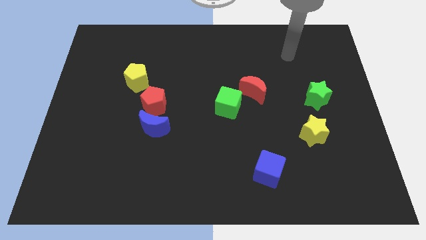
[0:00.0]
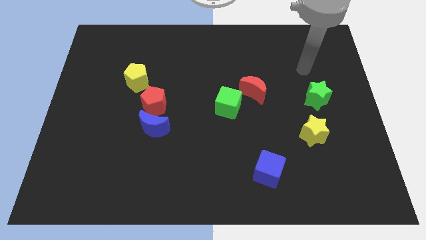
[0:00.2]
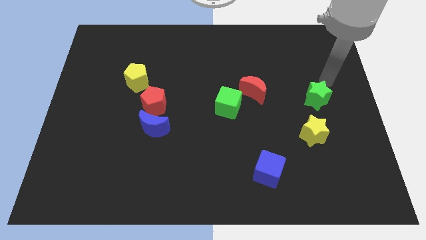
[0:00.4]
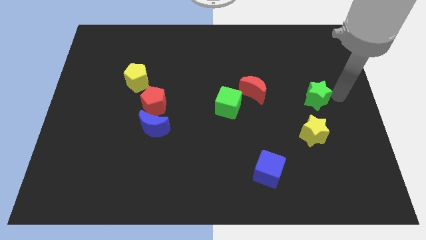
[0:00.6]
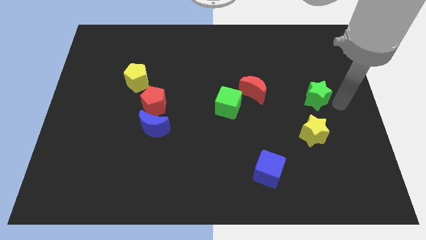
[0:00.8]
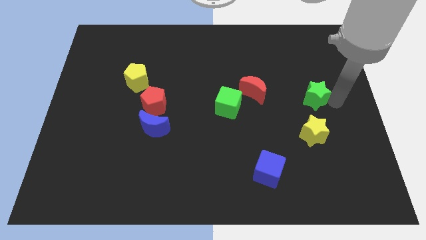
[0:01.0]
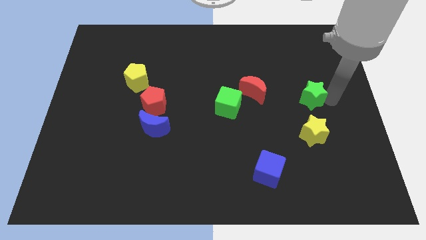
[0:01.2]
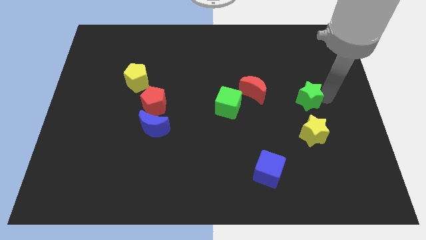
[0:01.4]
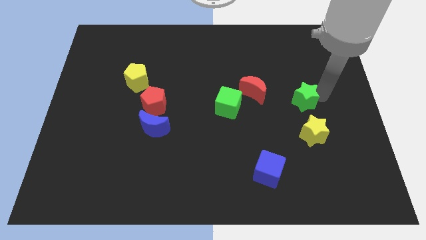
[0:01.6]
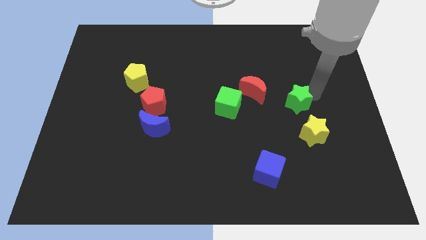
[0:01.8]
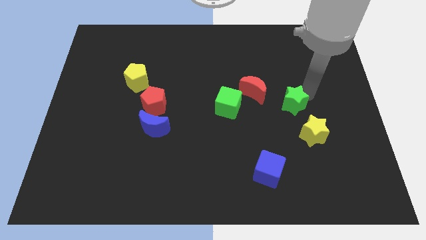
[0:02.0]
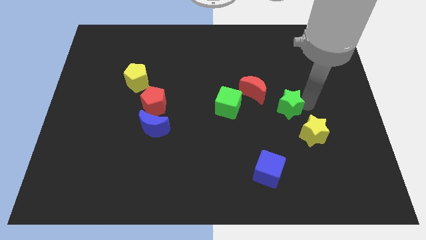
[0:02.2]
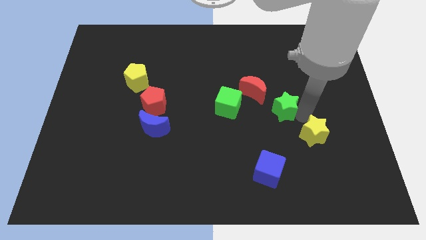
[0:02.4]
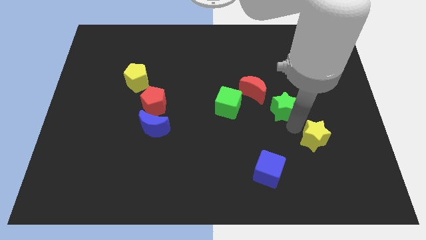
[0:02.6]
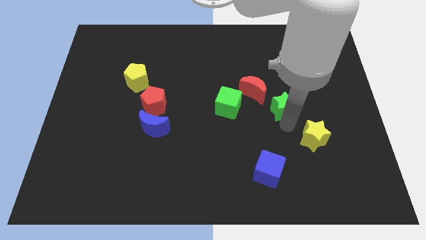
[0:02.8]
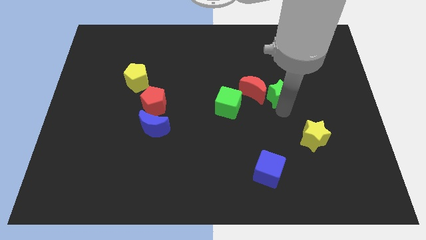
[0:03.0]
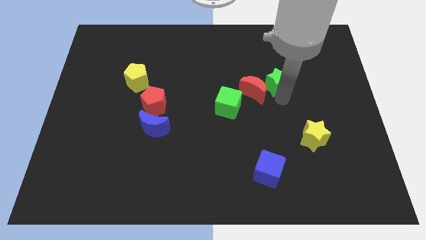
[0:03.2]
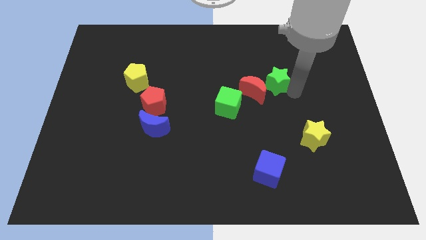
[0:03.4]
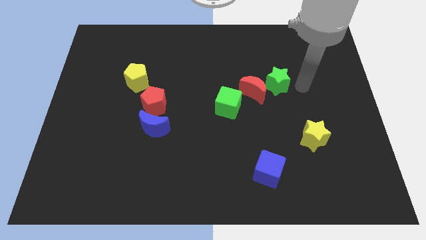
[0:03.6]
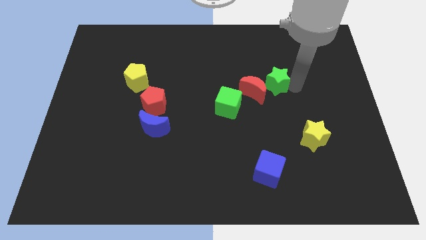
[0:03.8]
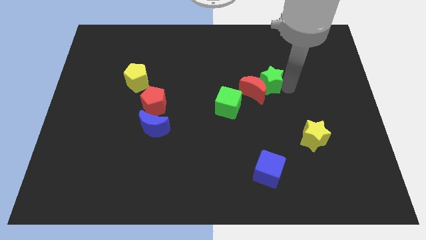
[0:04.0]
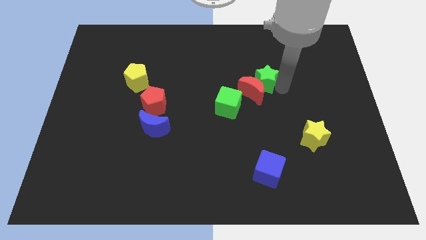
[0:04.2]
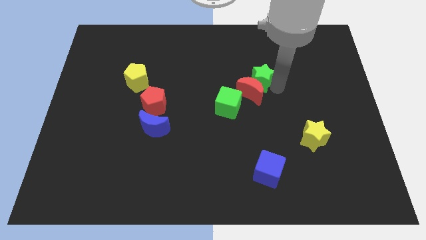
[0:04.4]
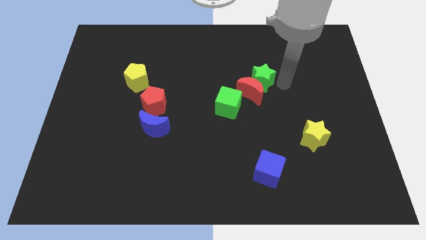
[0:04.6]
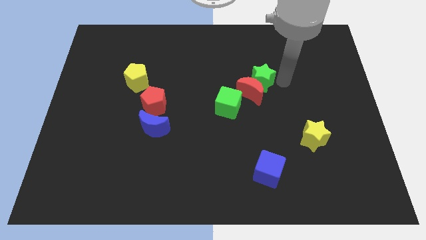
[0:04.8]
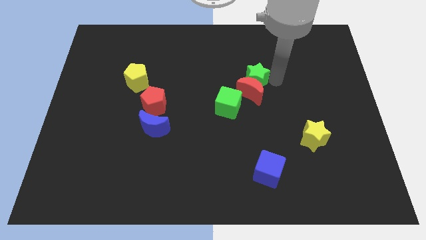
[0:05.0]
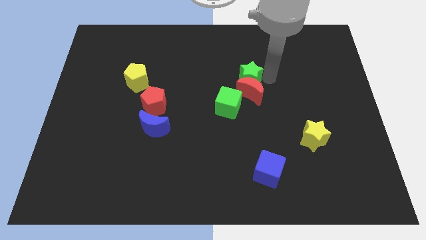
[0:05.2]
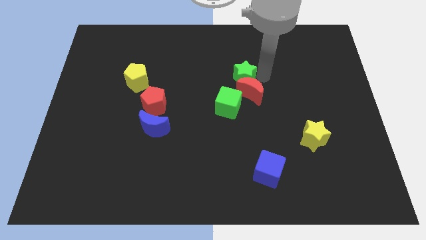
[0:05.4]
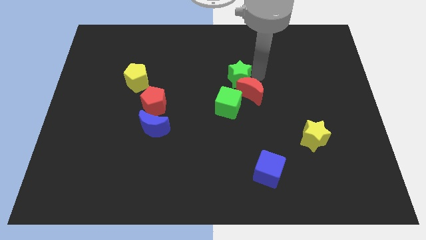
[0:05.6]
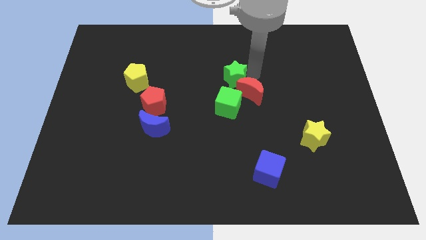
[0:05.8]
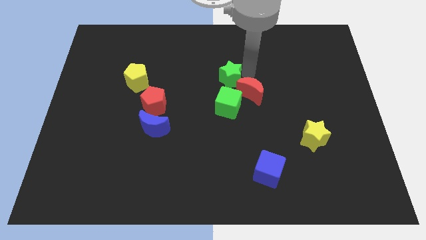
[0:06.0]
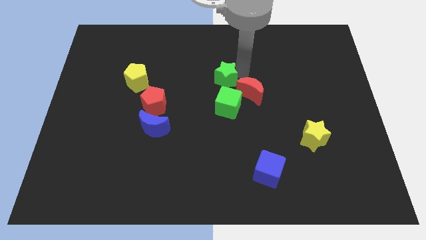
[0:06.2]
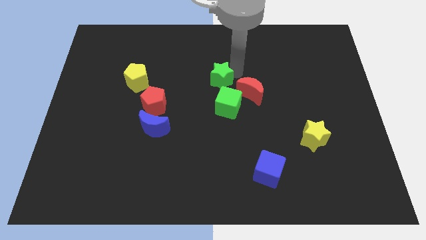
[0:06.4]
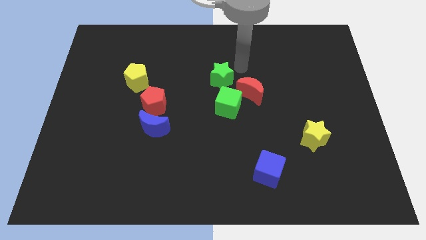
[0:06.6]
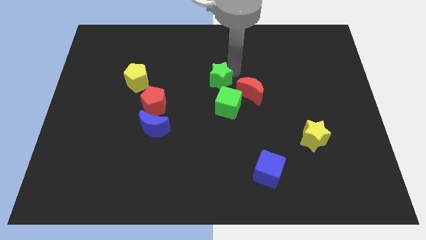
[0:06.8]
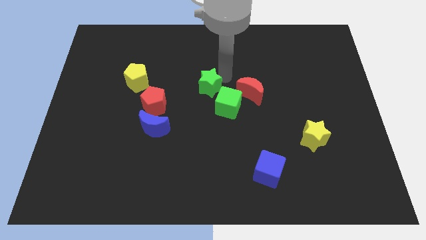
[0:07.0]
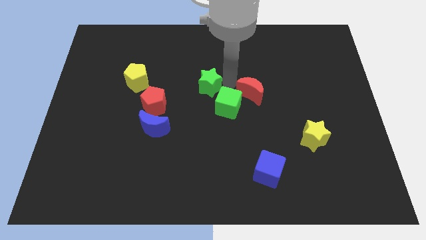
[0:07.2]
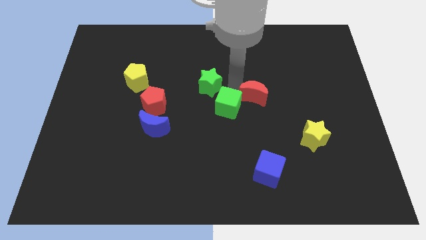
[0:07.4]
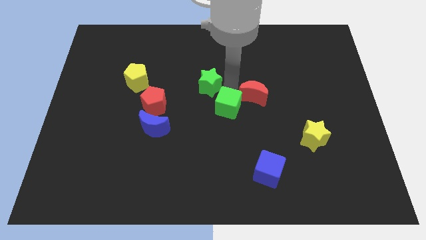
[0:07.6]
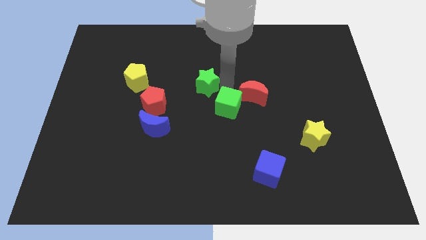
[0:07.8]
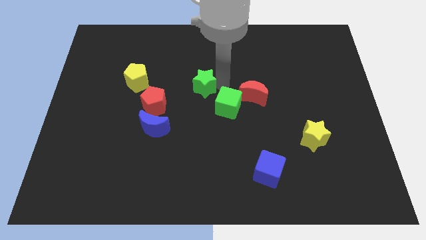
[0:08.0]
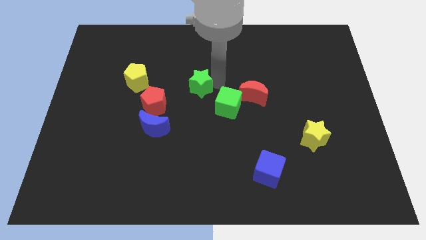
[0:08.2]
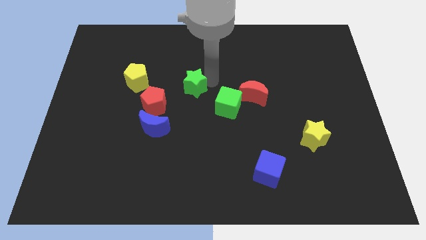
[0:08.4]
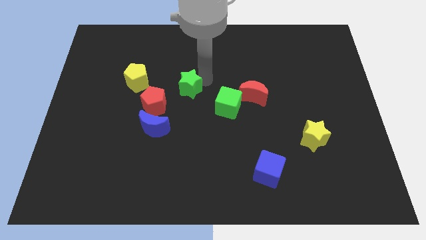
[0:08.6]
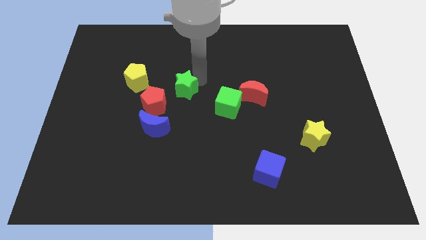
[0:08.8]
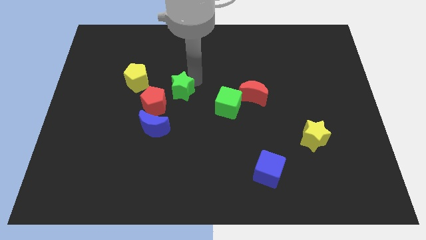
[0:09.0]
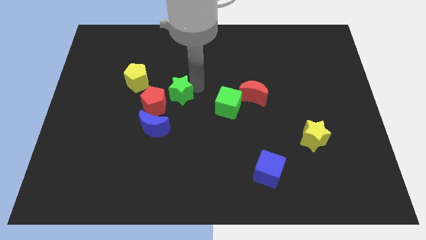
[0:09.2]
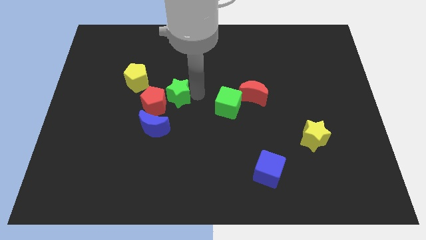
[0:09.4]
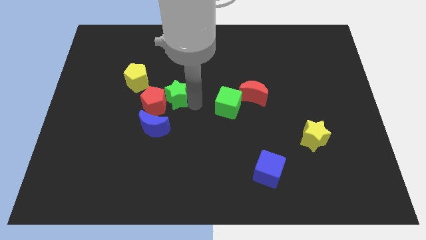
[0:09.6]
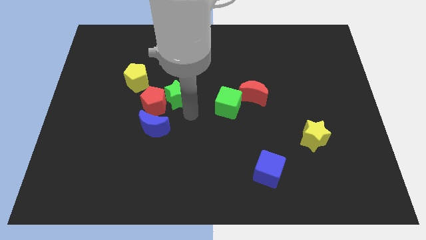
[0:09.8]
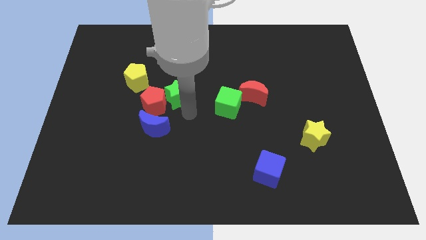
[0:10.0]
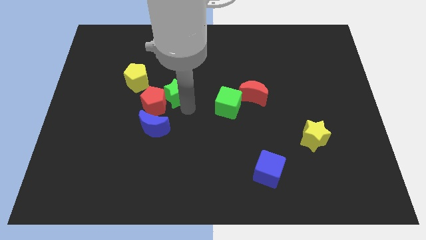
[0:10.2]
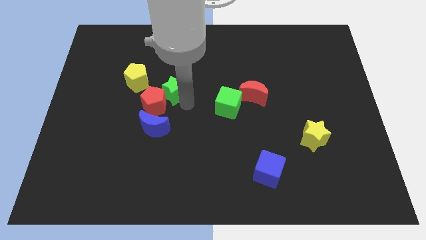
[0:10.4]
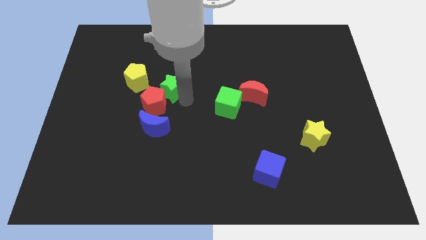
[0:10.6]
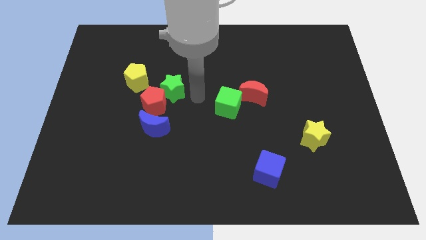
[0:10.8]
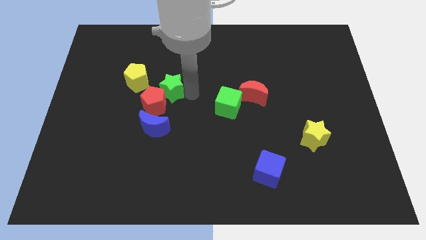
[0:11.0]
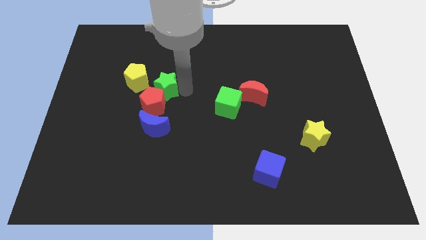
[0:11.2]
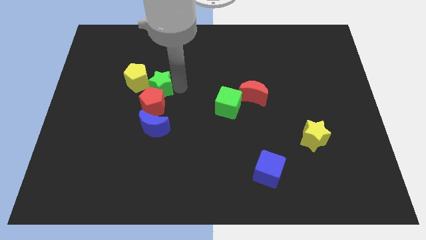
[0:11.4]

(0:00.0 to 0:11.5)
put the green star to the yellow pentagon

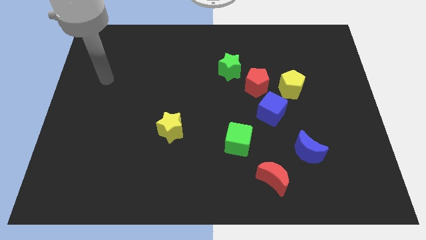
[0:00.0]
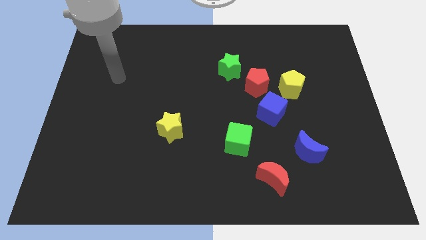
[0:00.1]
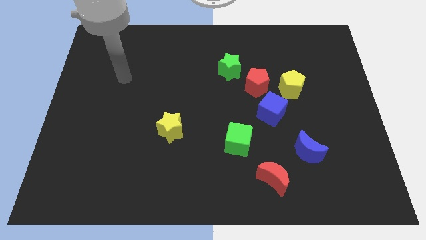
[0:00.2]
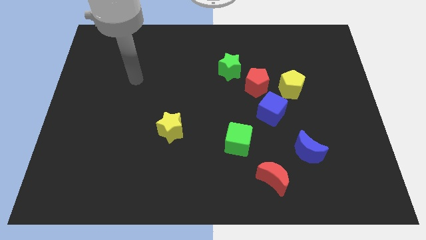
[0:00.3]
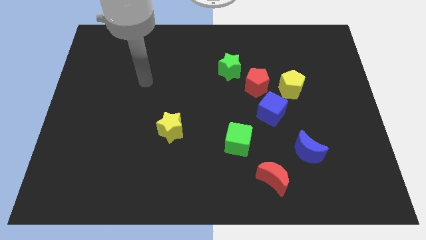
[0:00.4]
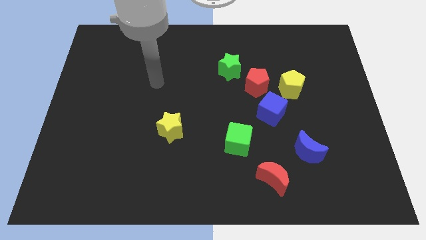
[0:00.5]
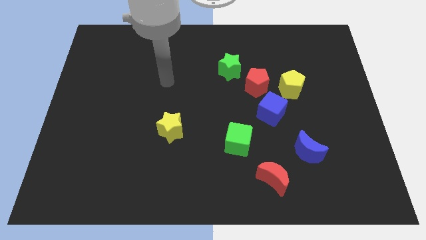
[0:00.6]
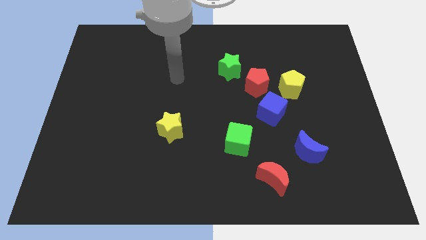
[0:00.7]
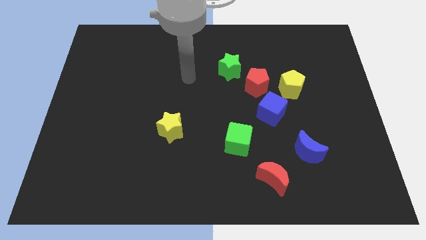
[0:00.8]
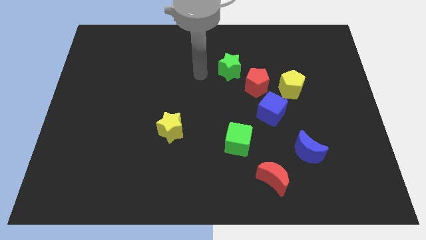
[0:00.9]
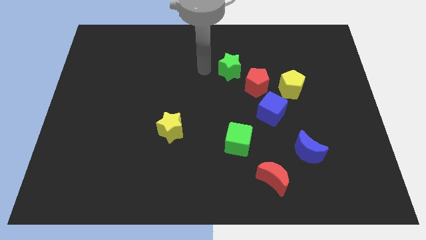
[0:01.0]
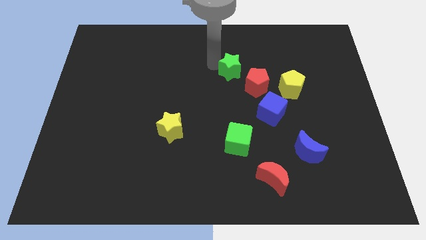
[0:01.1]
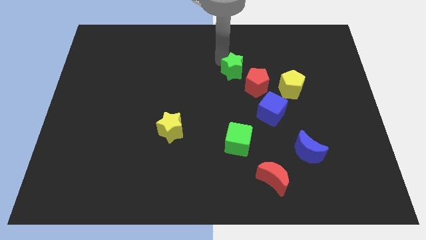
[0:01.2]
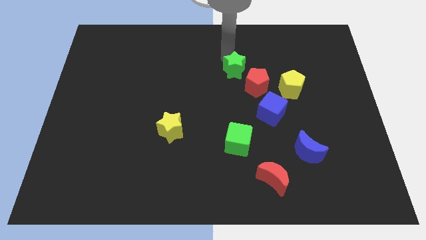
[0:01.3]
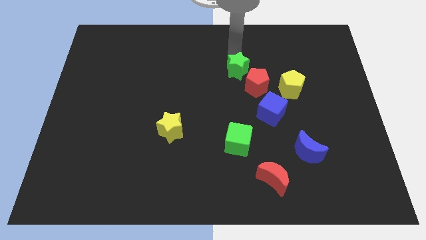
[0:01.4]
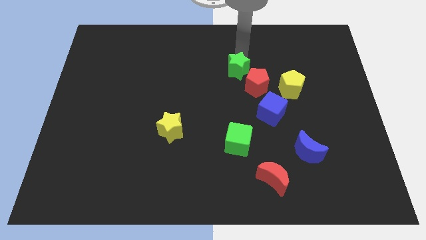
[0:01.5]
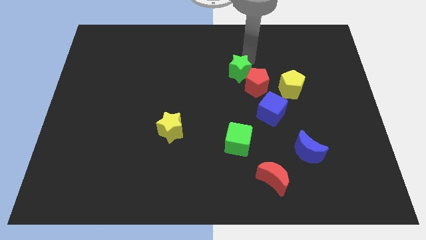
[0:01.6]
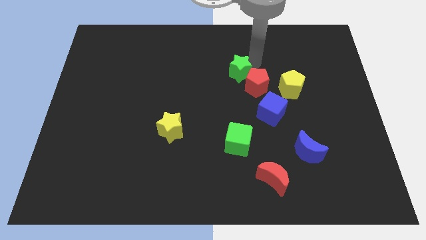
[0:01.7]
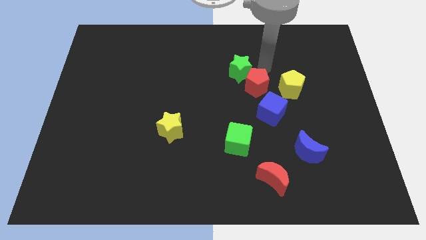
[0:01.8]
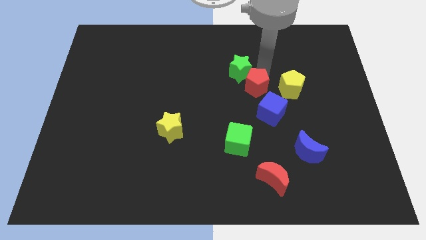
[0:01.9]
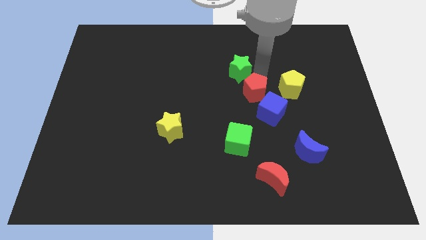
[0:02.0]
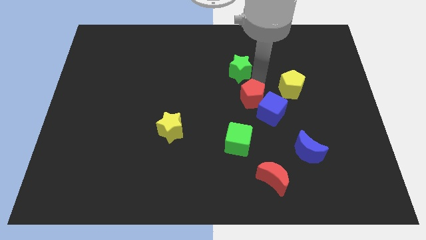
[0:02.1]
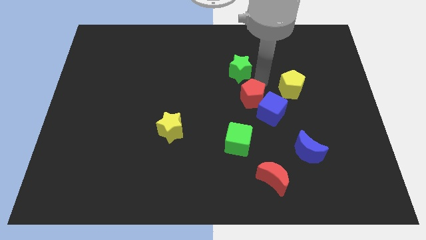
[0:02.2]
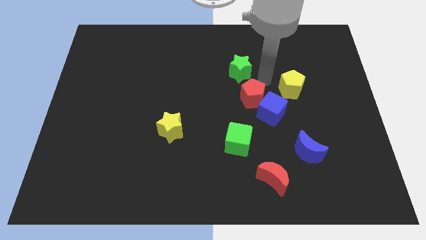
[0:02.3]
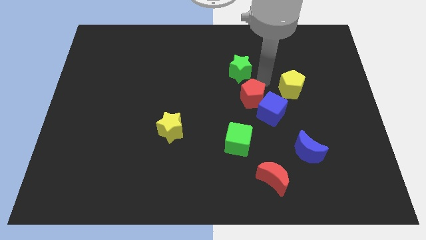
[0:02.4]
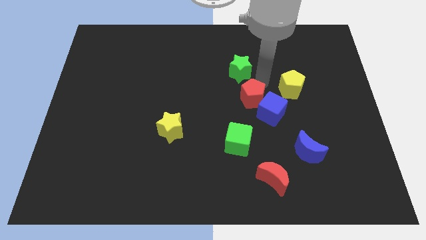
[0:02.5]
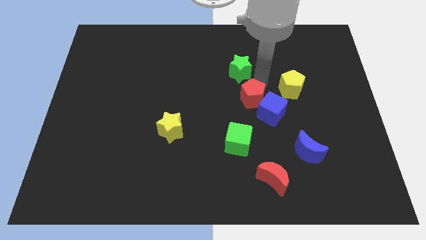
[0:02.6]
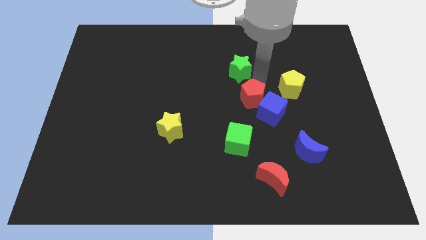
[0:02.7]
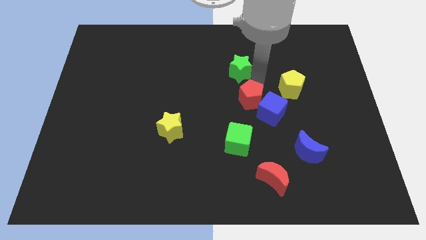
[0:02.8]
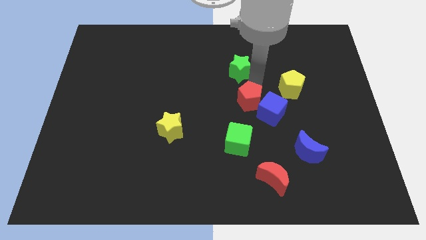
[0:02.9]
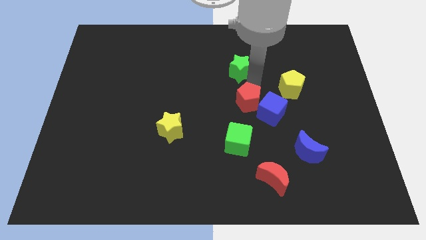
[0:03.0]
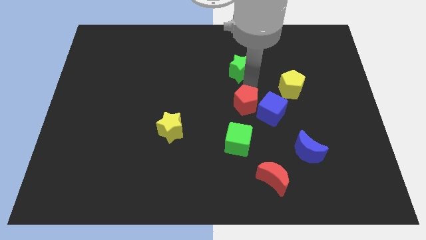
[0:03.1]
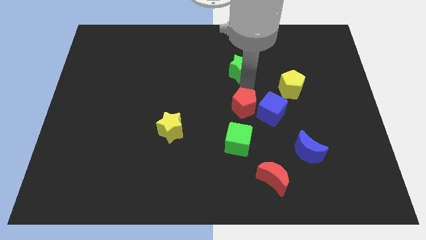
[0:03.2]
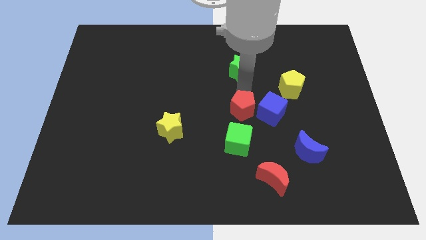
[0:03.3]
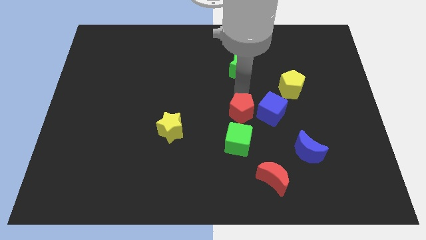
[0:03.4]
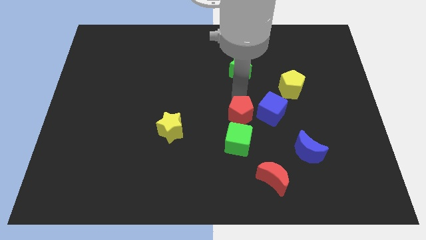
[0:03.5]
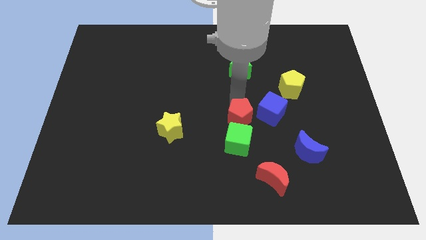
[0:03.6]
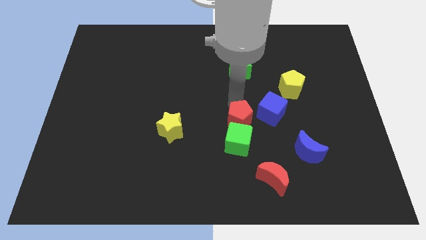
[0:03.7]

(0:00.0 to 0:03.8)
slide the red pentagon to the green cube
